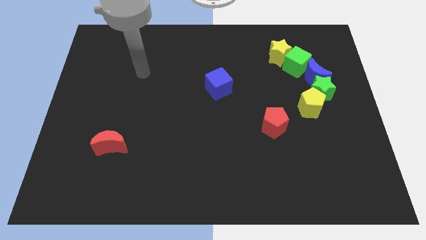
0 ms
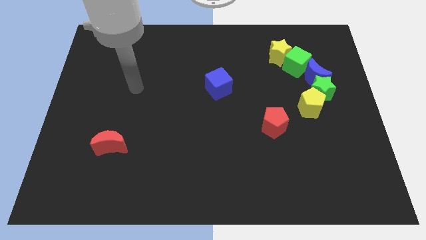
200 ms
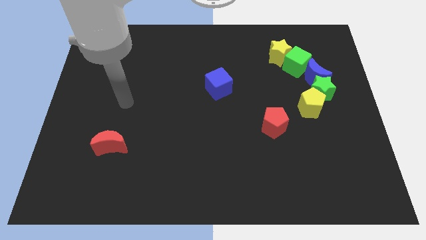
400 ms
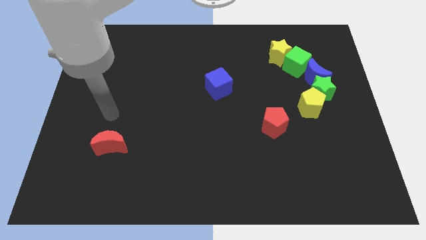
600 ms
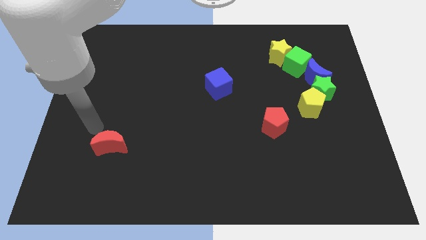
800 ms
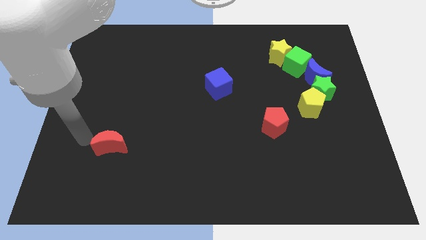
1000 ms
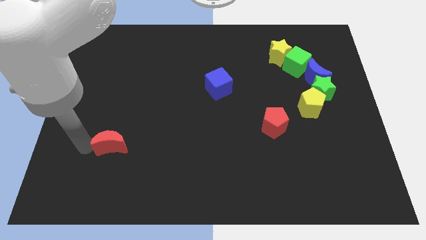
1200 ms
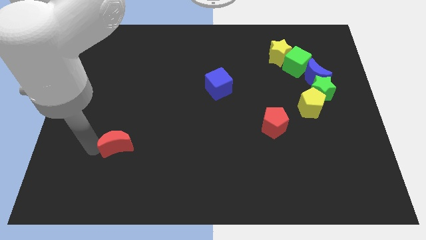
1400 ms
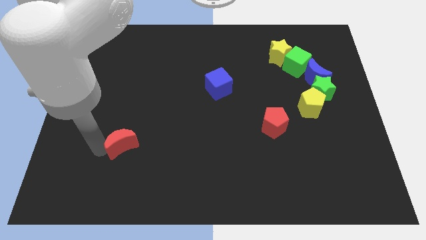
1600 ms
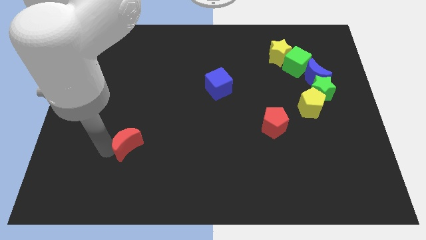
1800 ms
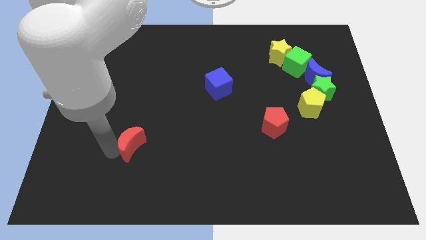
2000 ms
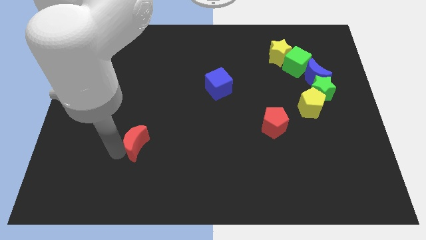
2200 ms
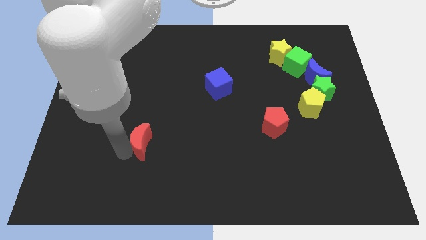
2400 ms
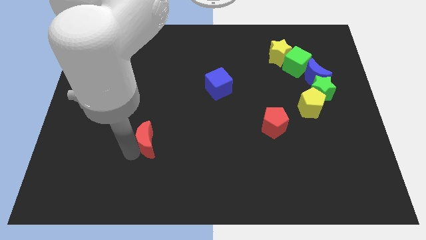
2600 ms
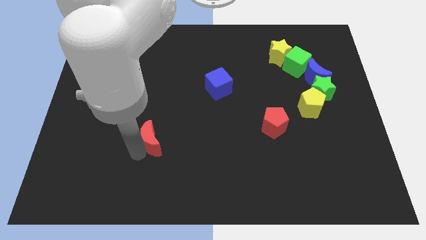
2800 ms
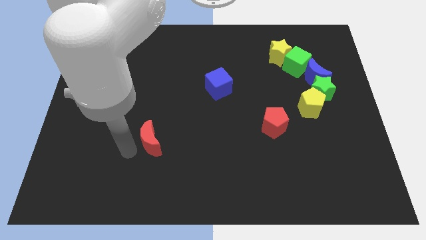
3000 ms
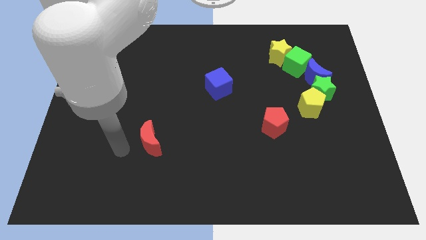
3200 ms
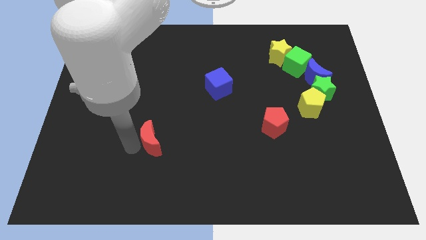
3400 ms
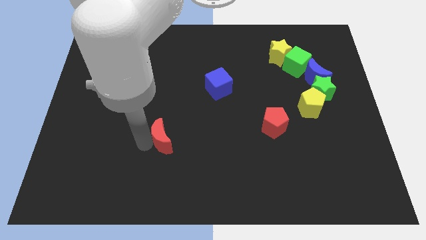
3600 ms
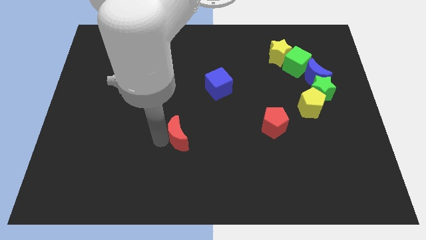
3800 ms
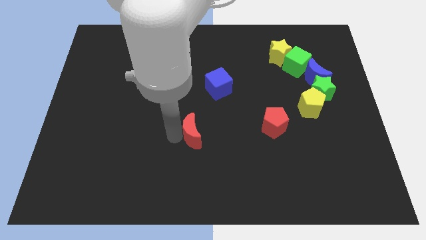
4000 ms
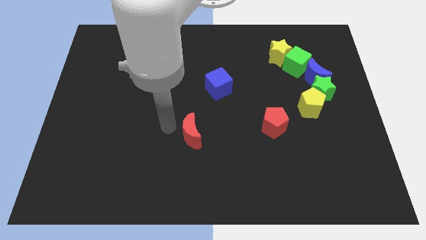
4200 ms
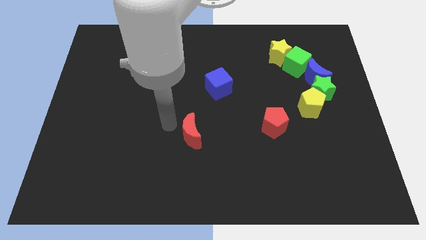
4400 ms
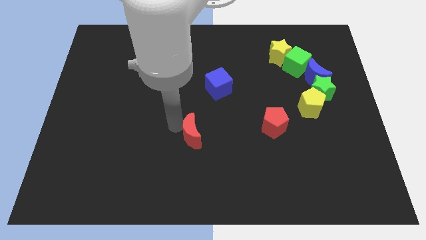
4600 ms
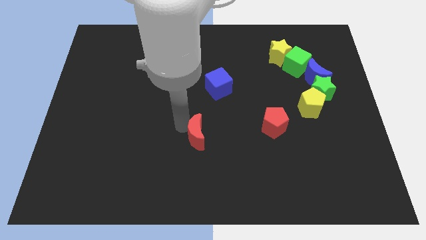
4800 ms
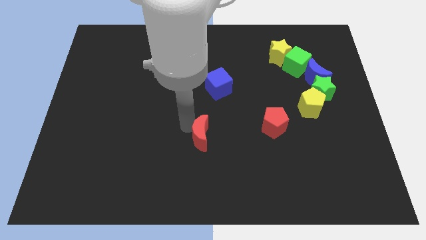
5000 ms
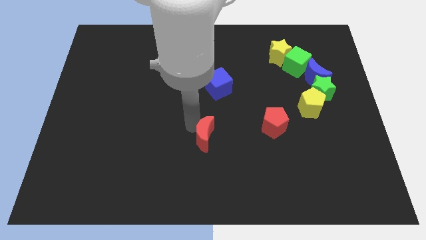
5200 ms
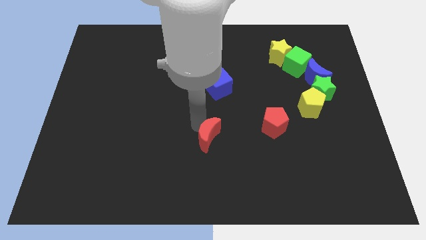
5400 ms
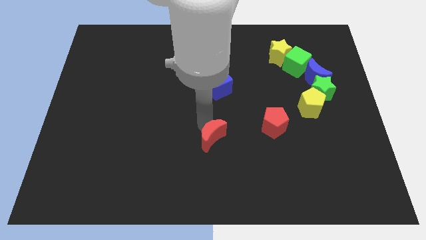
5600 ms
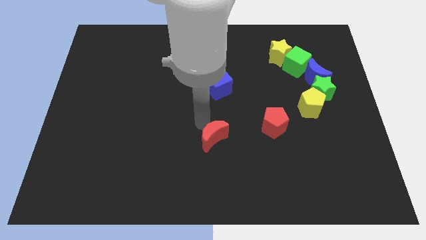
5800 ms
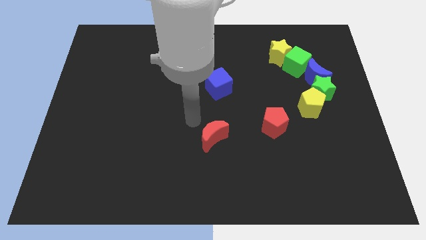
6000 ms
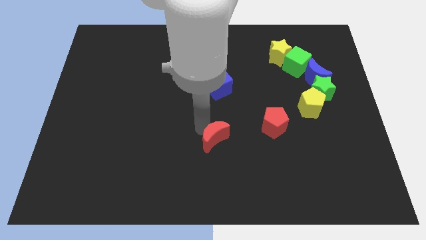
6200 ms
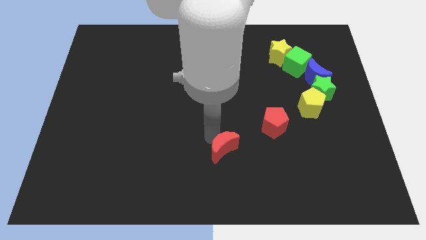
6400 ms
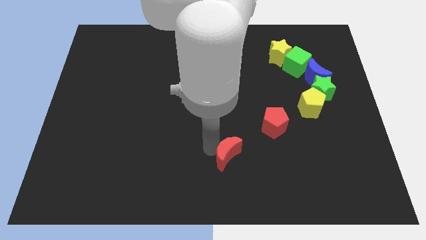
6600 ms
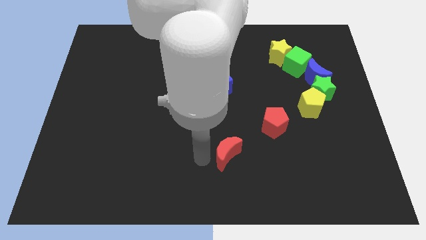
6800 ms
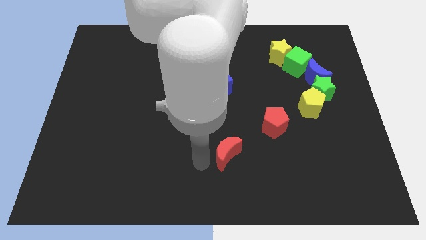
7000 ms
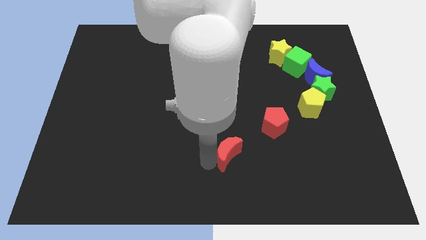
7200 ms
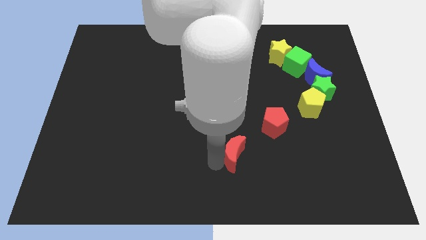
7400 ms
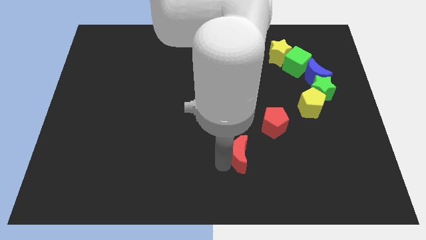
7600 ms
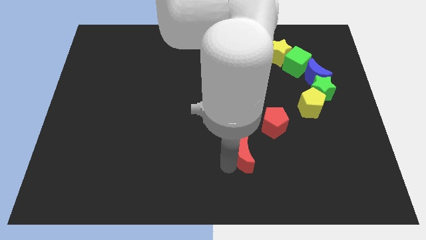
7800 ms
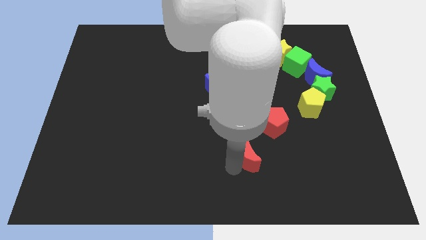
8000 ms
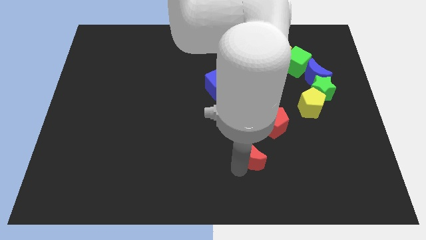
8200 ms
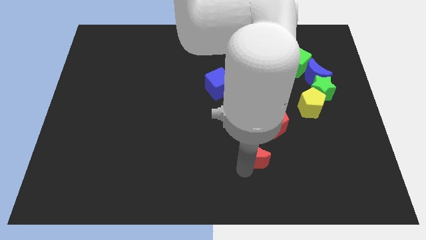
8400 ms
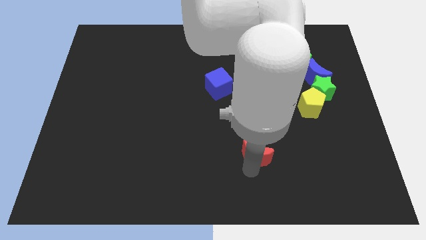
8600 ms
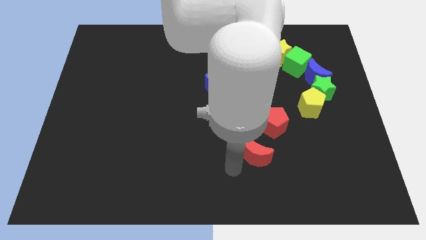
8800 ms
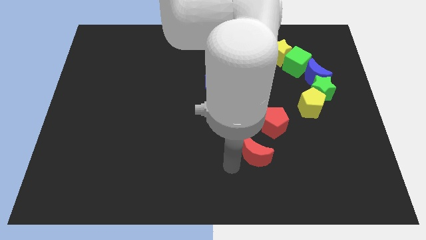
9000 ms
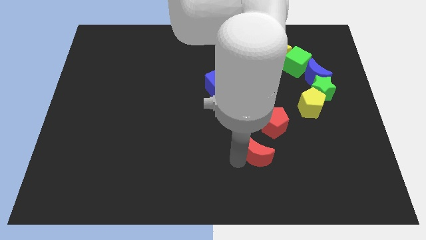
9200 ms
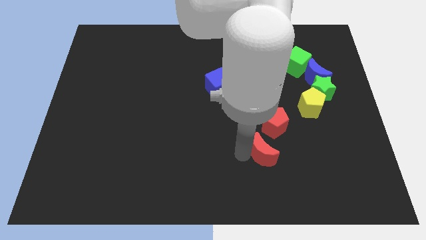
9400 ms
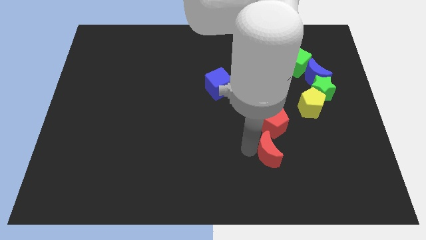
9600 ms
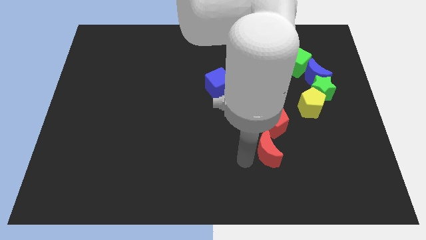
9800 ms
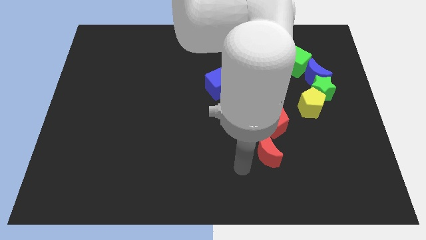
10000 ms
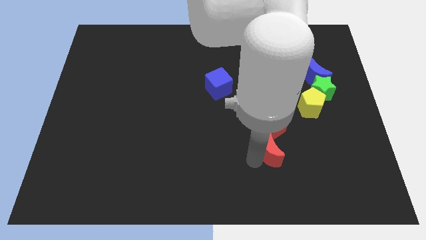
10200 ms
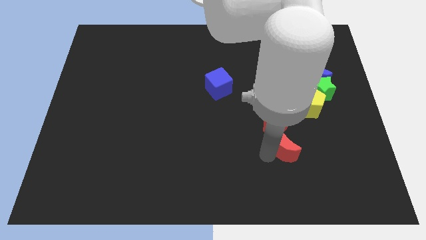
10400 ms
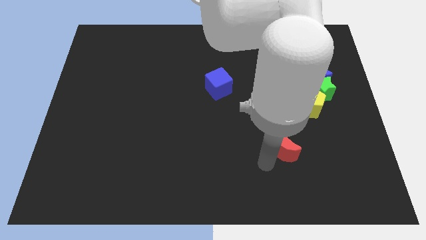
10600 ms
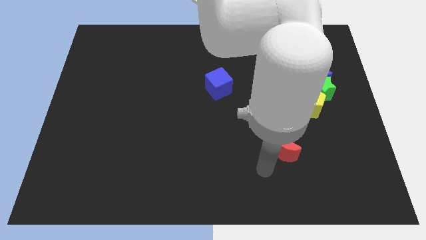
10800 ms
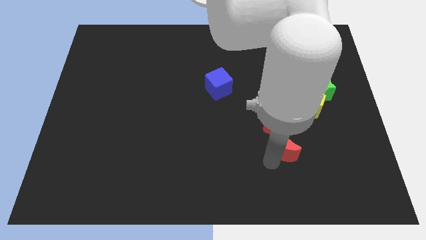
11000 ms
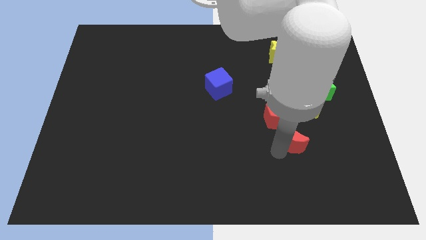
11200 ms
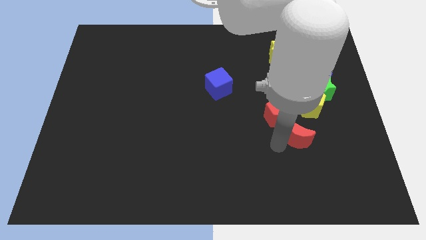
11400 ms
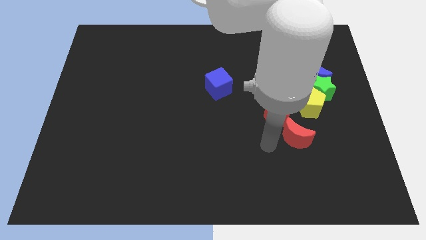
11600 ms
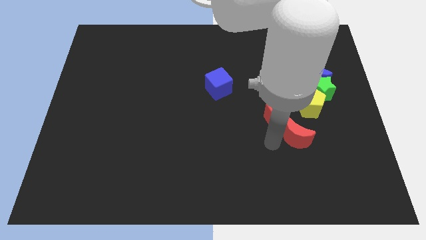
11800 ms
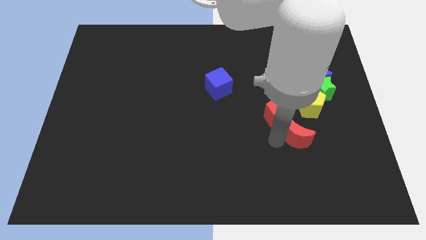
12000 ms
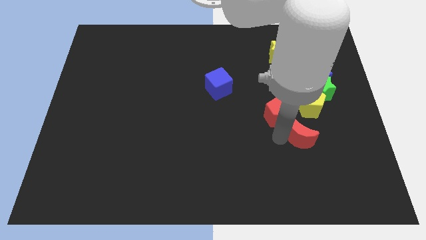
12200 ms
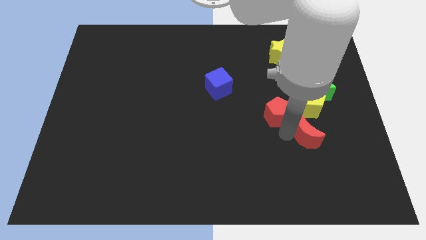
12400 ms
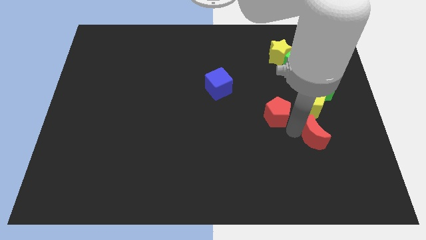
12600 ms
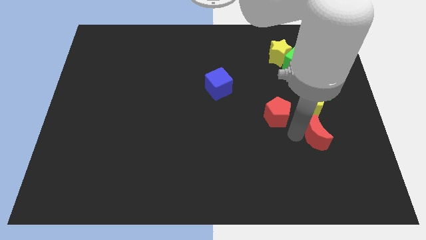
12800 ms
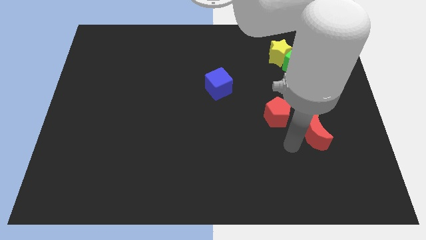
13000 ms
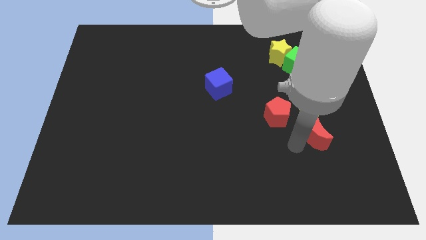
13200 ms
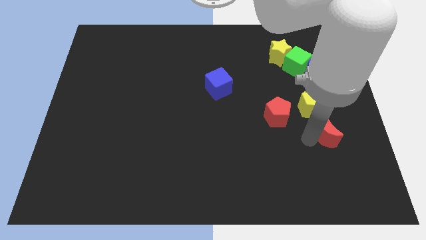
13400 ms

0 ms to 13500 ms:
put the red moon diagonally down and to the right of the yellow pentagon
